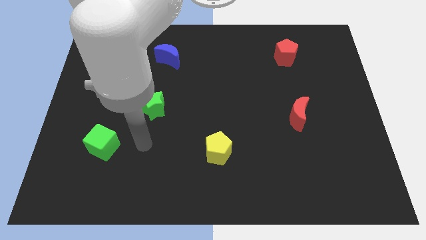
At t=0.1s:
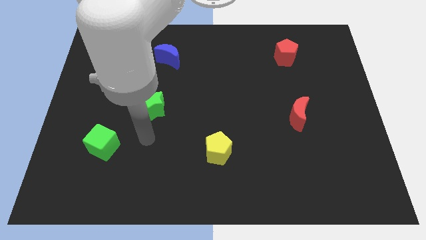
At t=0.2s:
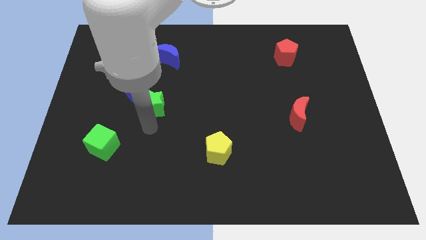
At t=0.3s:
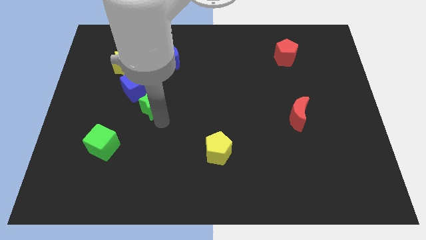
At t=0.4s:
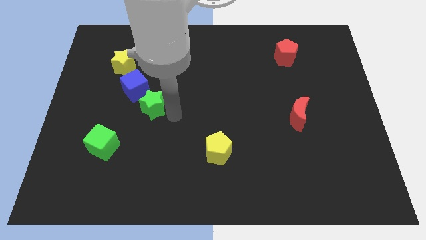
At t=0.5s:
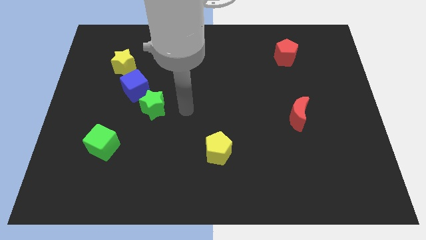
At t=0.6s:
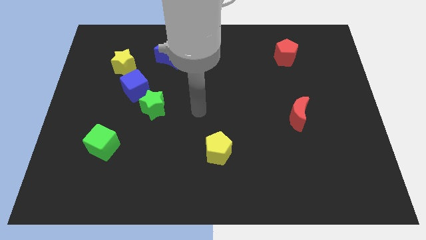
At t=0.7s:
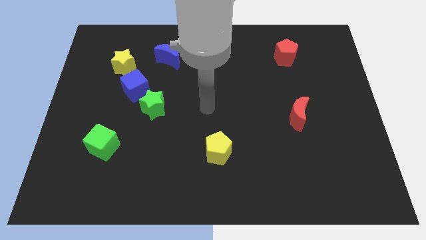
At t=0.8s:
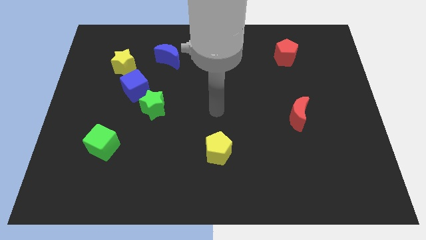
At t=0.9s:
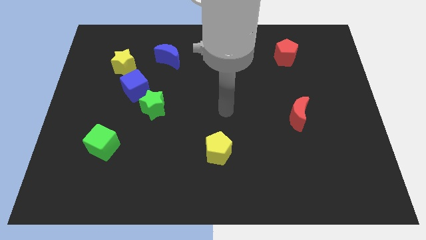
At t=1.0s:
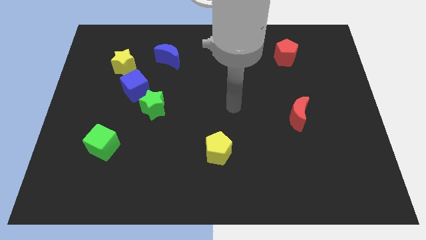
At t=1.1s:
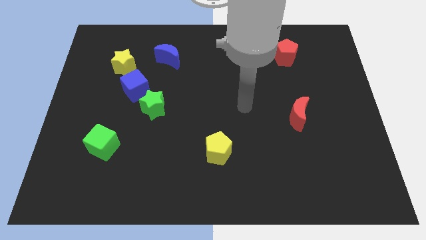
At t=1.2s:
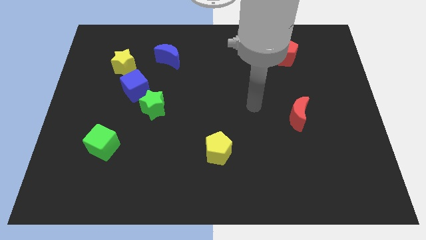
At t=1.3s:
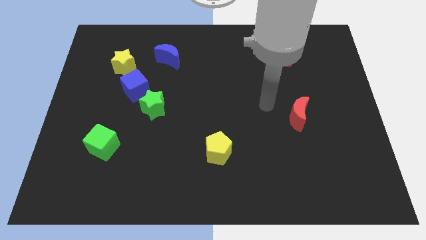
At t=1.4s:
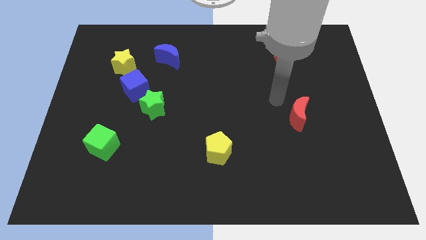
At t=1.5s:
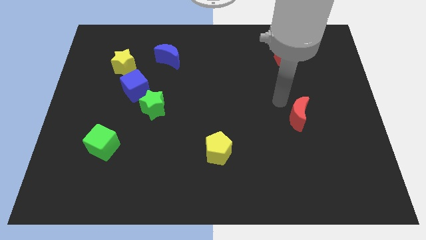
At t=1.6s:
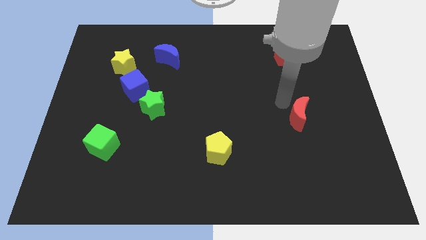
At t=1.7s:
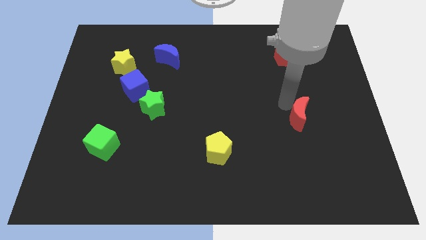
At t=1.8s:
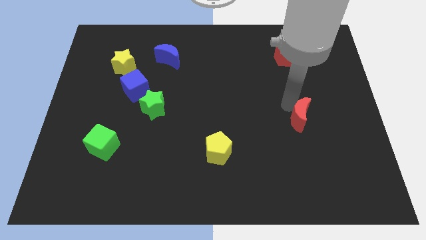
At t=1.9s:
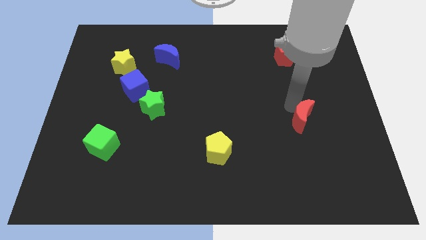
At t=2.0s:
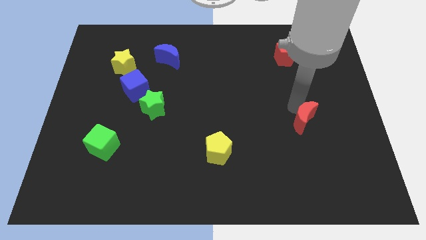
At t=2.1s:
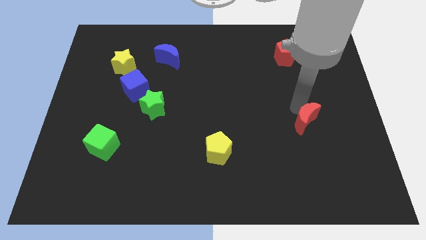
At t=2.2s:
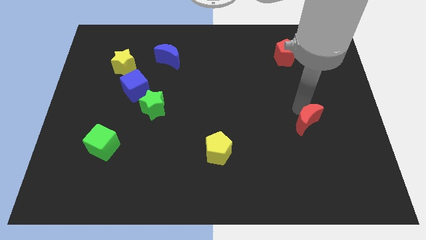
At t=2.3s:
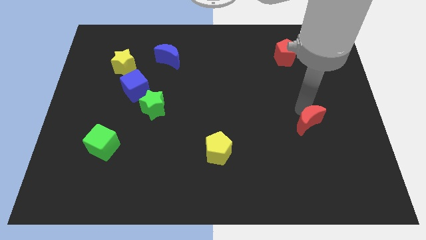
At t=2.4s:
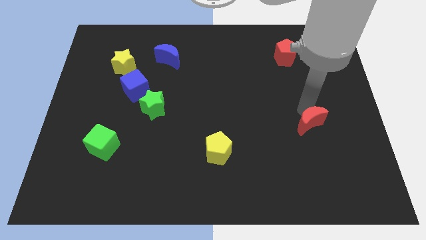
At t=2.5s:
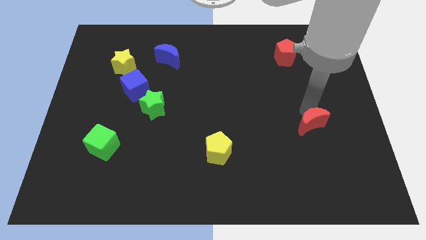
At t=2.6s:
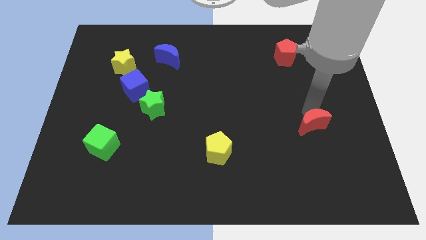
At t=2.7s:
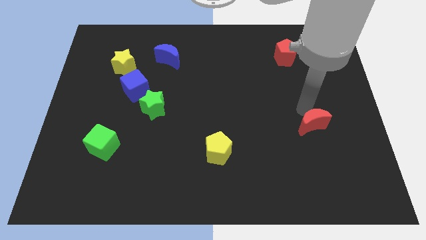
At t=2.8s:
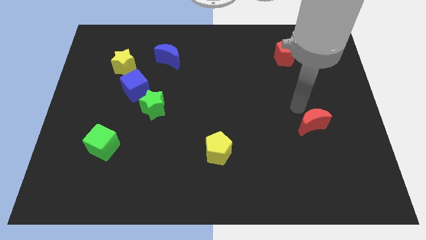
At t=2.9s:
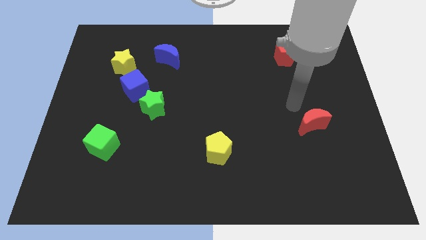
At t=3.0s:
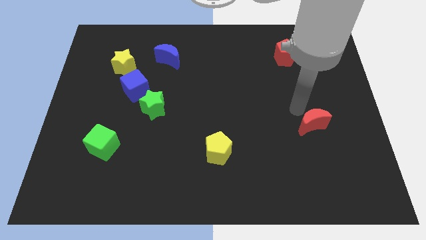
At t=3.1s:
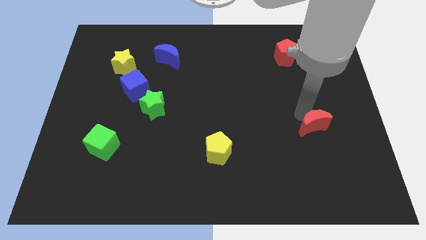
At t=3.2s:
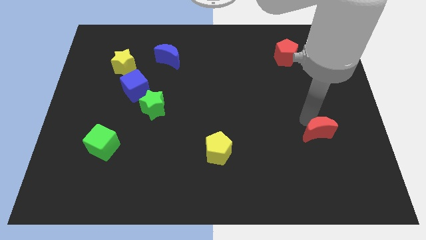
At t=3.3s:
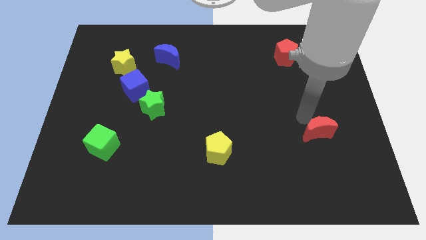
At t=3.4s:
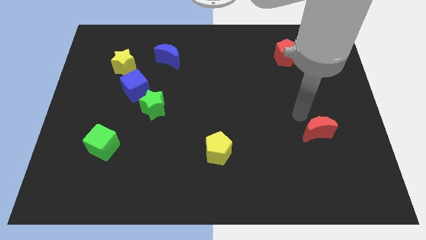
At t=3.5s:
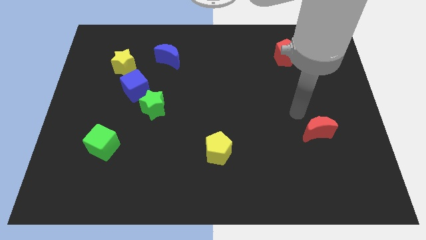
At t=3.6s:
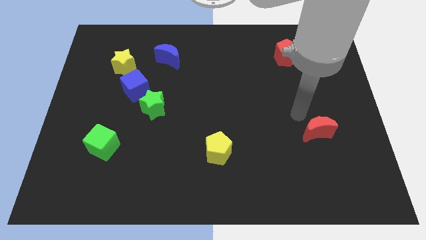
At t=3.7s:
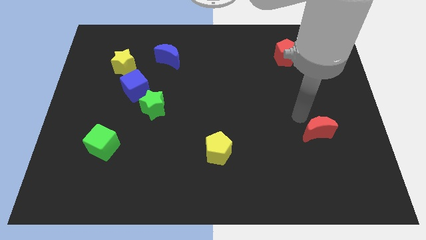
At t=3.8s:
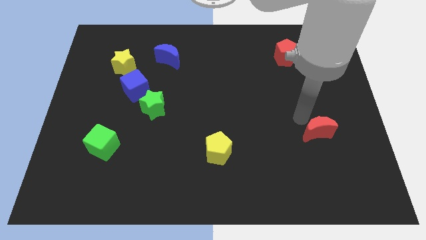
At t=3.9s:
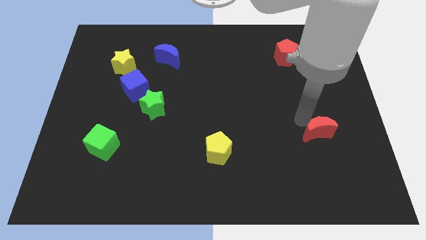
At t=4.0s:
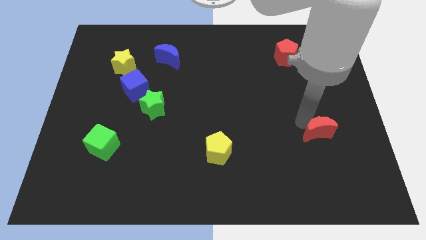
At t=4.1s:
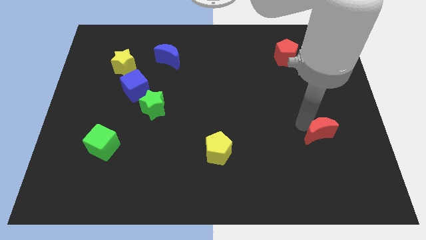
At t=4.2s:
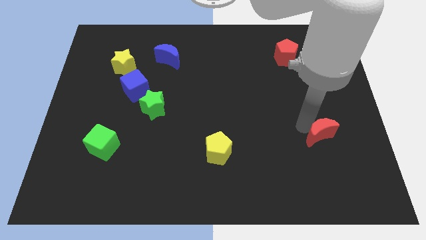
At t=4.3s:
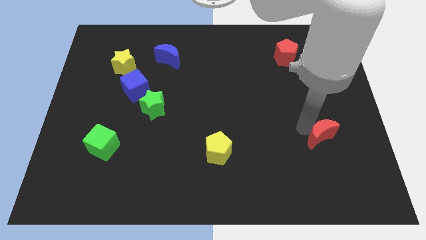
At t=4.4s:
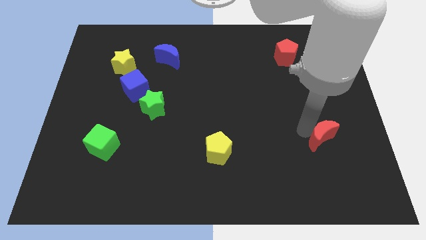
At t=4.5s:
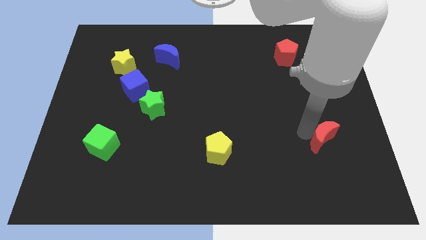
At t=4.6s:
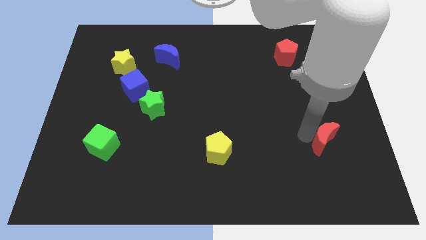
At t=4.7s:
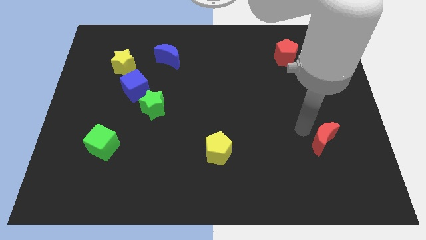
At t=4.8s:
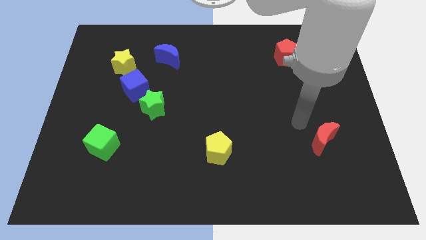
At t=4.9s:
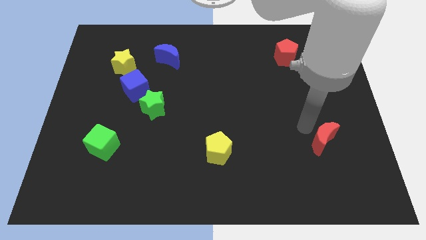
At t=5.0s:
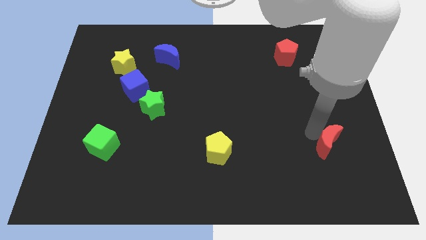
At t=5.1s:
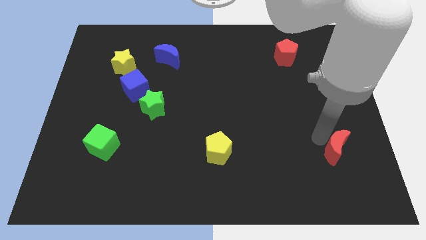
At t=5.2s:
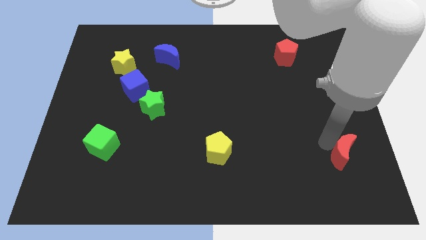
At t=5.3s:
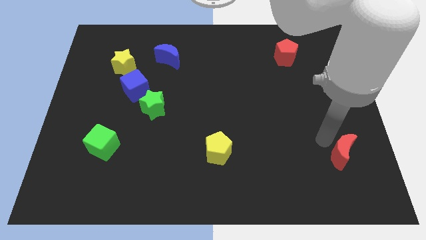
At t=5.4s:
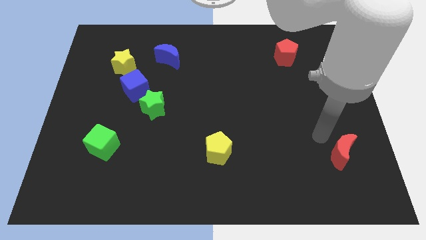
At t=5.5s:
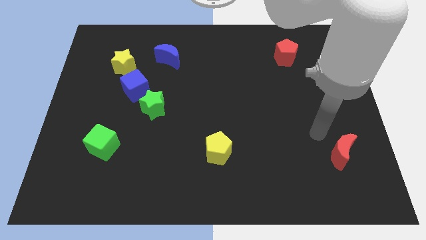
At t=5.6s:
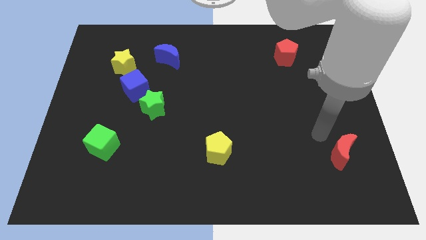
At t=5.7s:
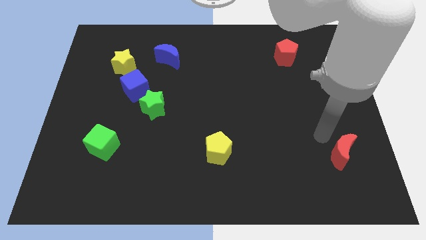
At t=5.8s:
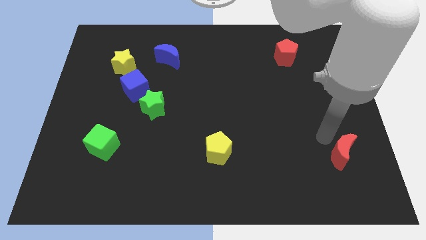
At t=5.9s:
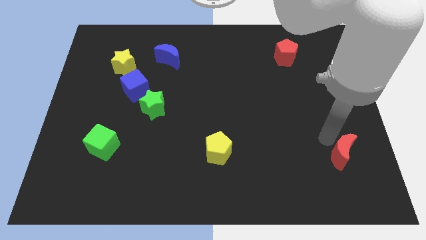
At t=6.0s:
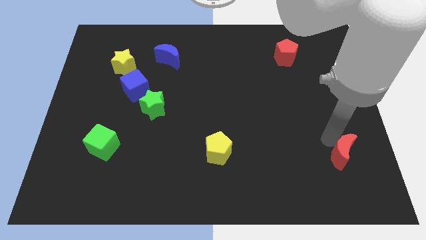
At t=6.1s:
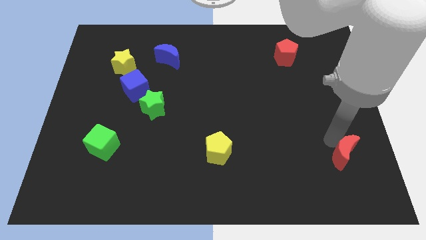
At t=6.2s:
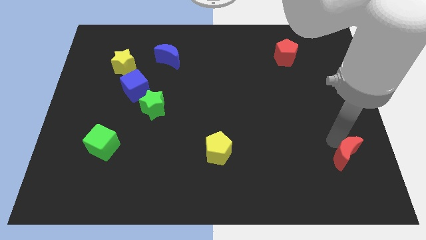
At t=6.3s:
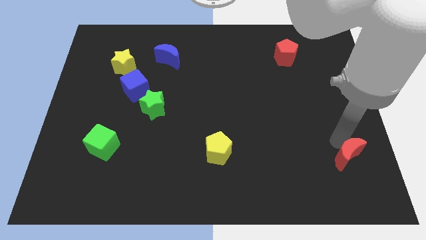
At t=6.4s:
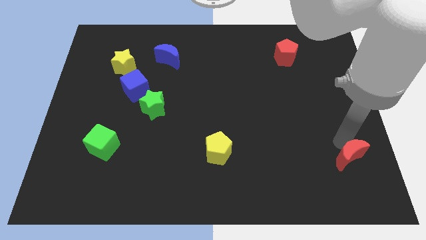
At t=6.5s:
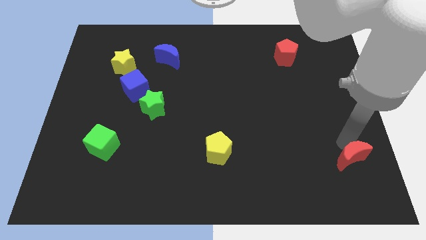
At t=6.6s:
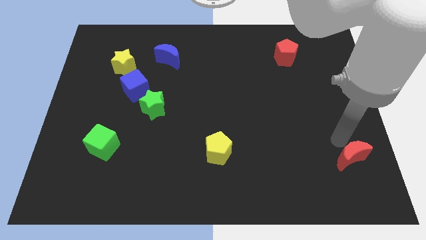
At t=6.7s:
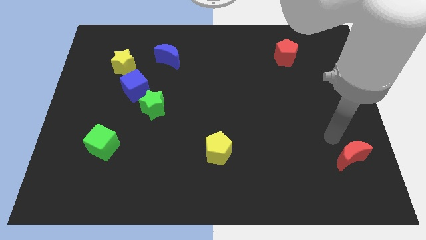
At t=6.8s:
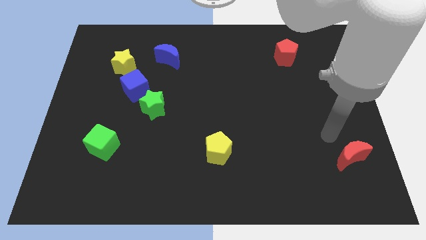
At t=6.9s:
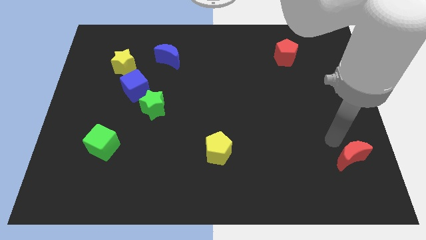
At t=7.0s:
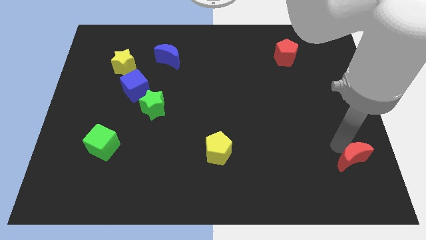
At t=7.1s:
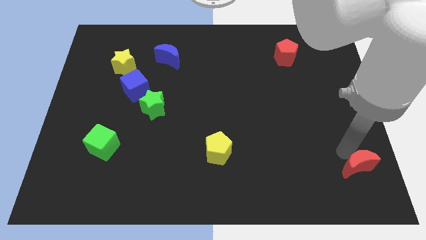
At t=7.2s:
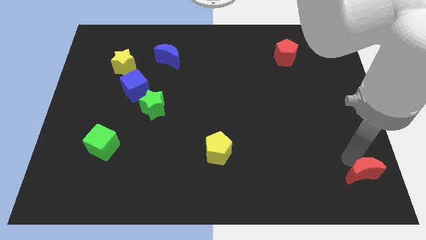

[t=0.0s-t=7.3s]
put the red moon to the bottom right of the board
